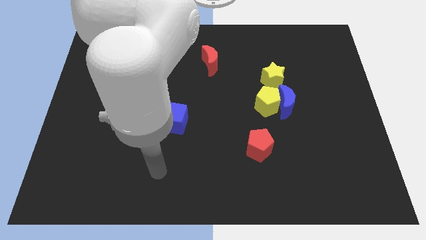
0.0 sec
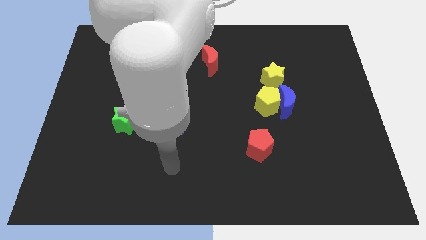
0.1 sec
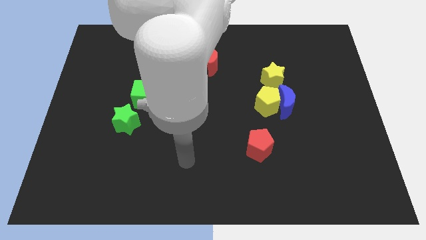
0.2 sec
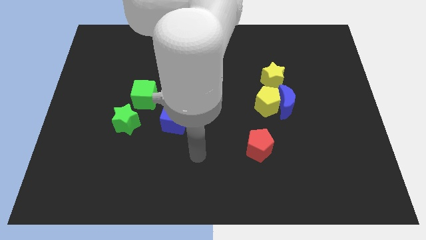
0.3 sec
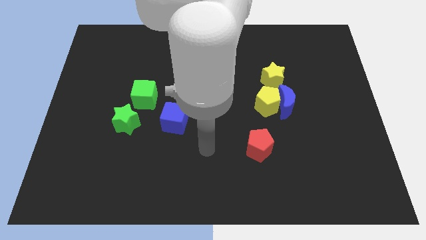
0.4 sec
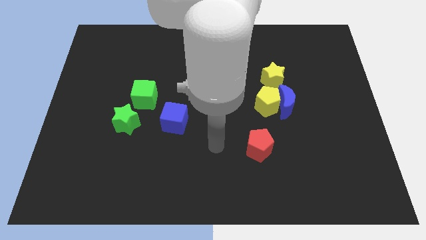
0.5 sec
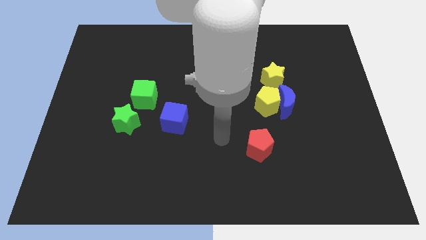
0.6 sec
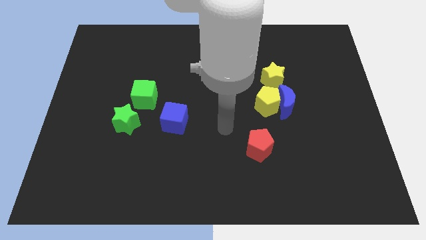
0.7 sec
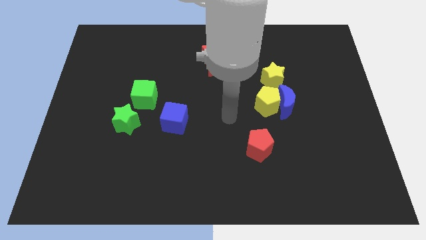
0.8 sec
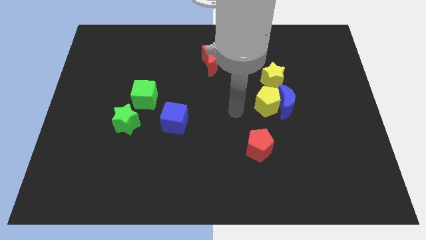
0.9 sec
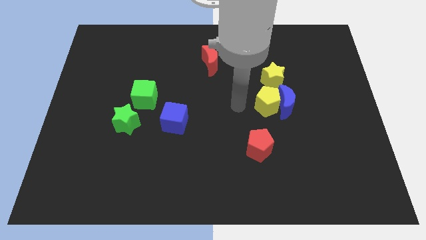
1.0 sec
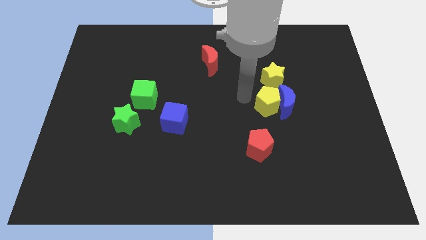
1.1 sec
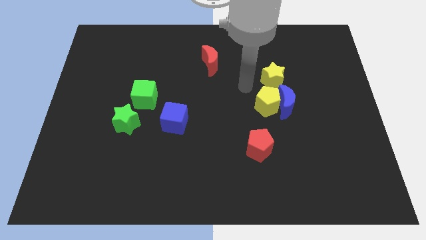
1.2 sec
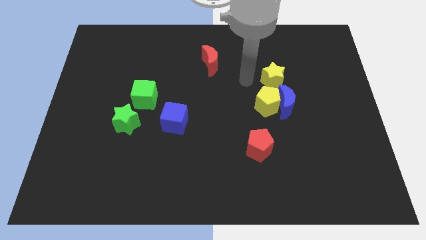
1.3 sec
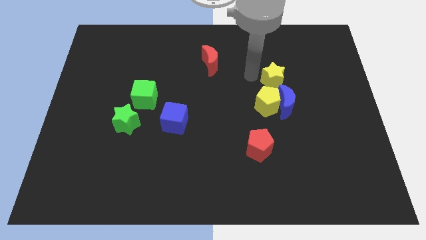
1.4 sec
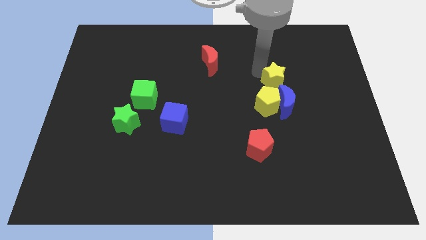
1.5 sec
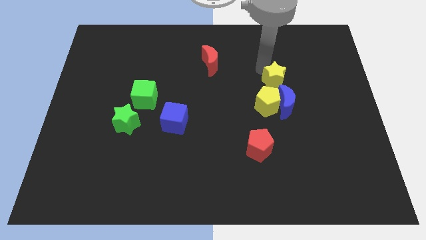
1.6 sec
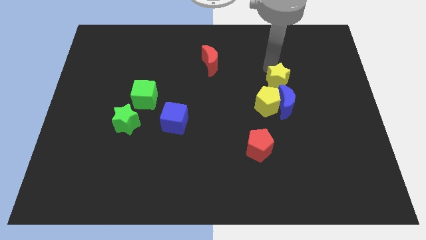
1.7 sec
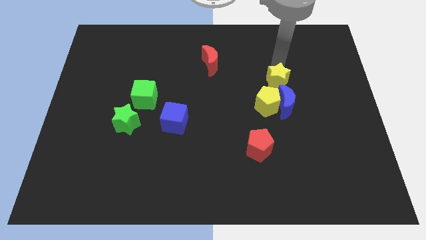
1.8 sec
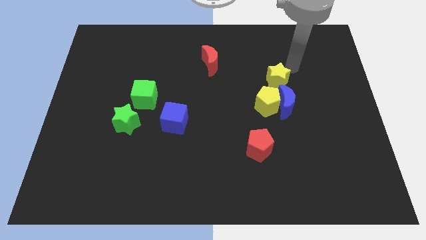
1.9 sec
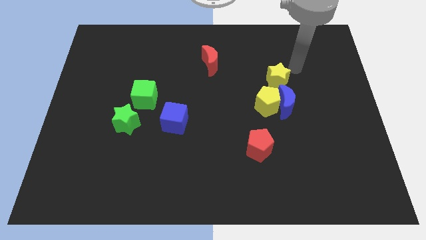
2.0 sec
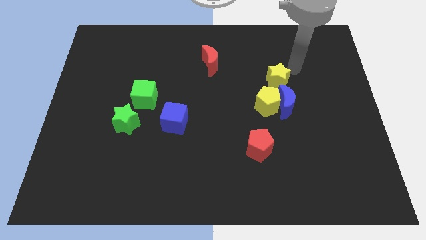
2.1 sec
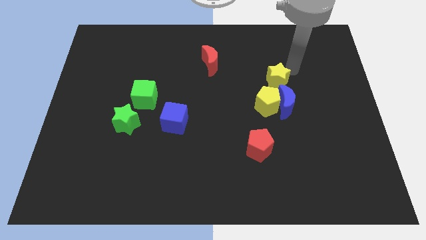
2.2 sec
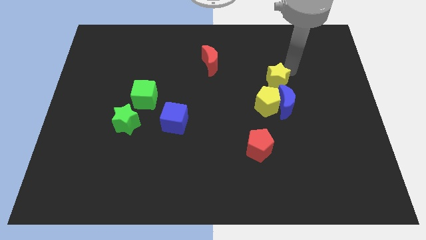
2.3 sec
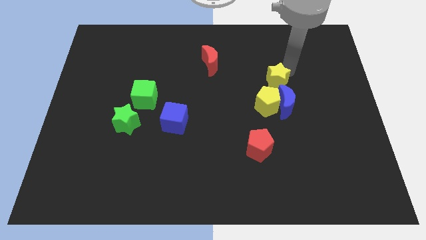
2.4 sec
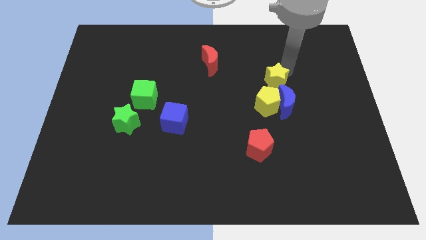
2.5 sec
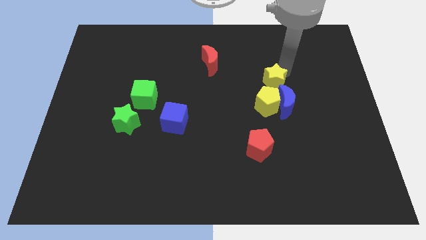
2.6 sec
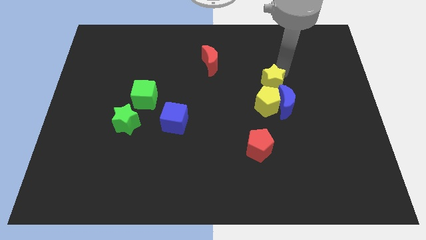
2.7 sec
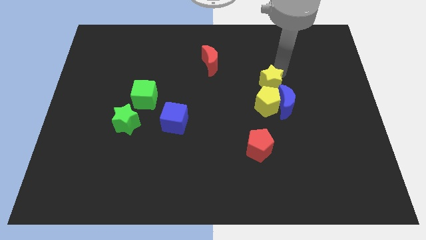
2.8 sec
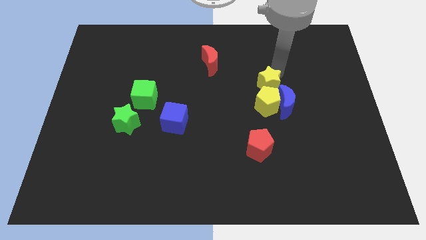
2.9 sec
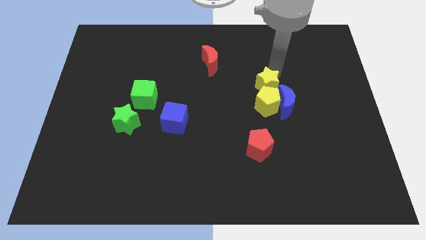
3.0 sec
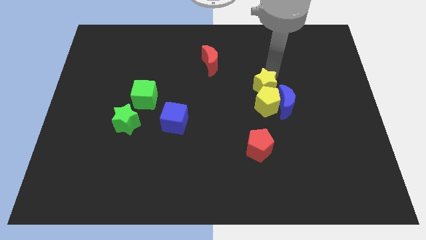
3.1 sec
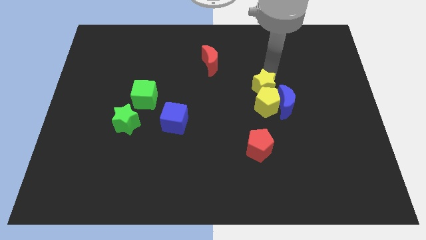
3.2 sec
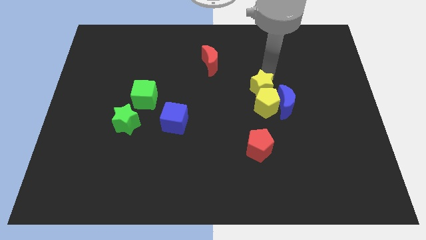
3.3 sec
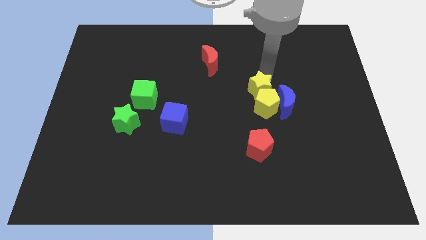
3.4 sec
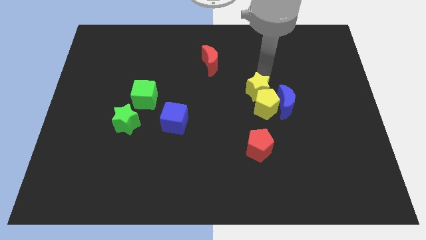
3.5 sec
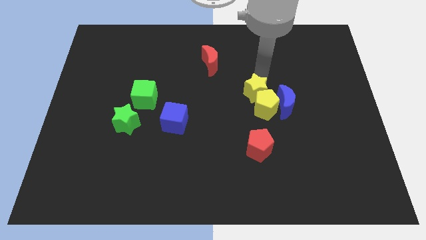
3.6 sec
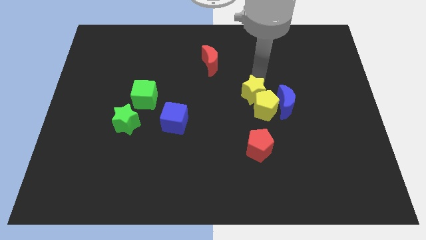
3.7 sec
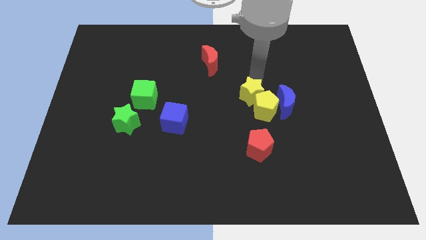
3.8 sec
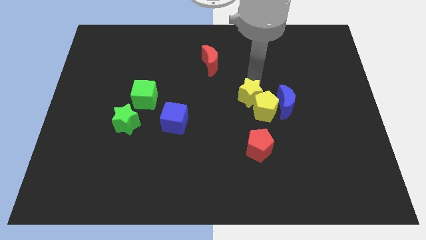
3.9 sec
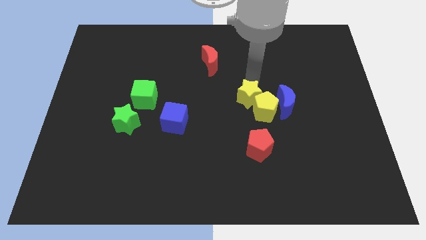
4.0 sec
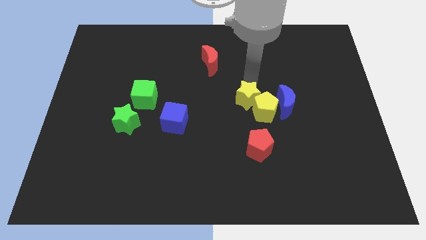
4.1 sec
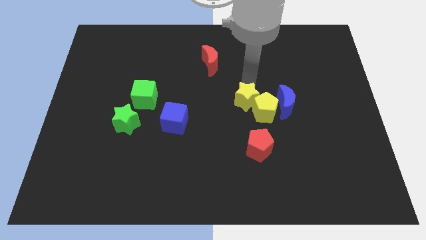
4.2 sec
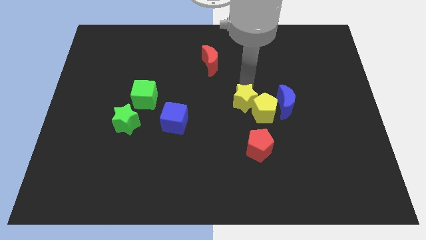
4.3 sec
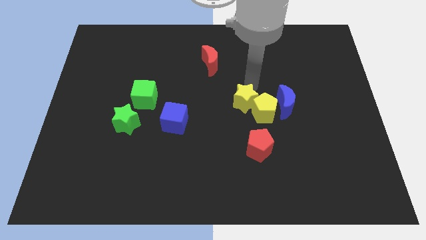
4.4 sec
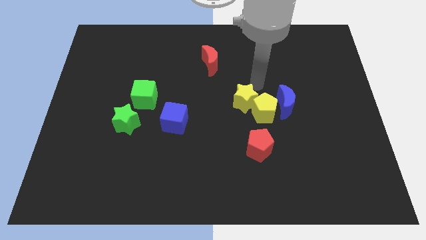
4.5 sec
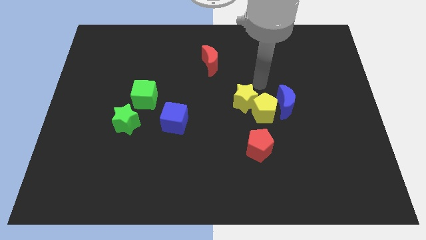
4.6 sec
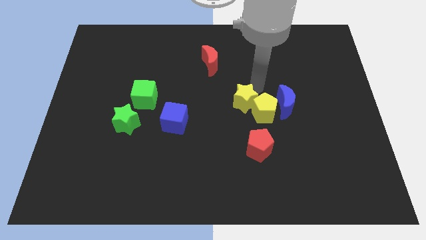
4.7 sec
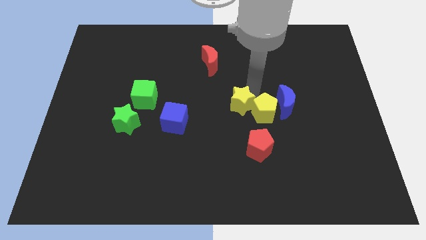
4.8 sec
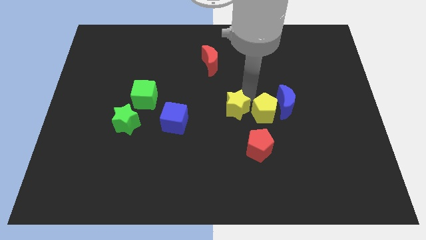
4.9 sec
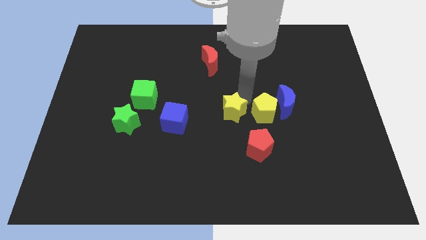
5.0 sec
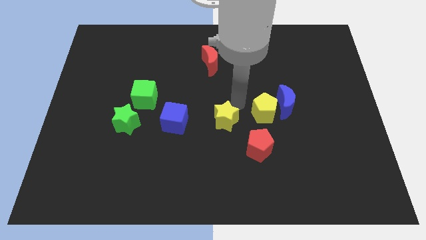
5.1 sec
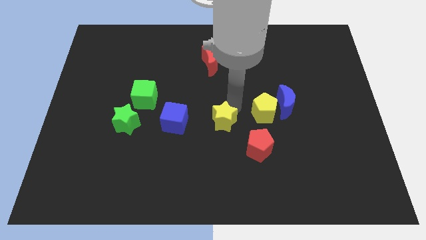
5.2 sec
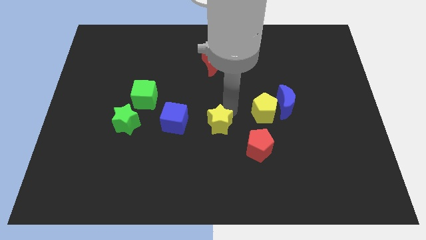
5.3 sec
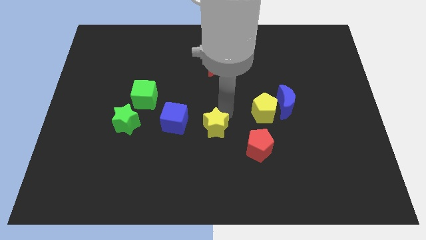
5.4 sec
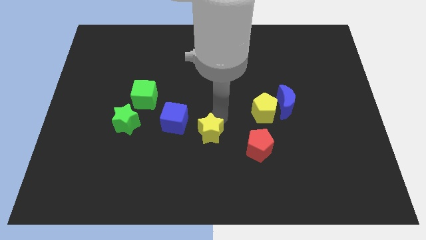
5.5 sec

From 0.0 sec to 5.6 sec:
slide the yellow star left of the red pentagon

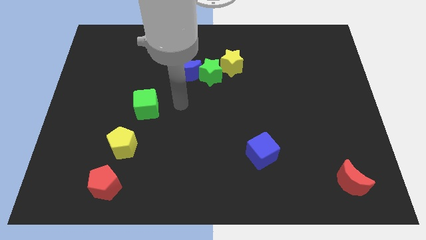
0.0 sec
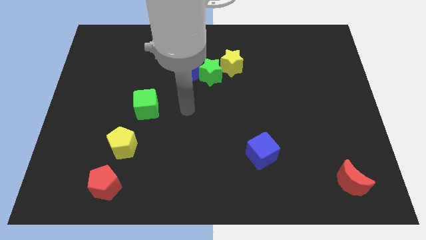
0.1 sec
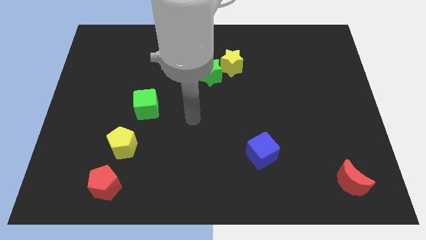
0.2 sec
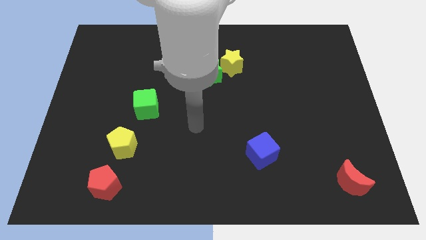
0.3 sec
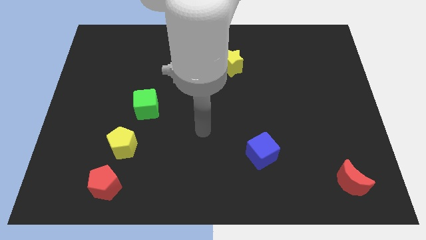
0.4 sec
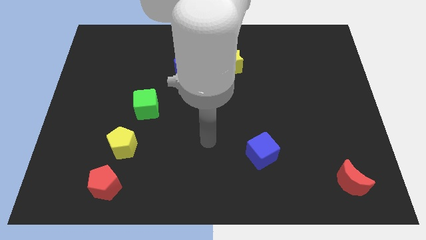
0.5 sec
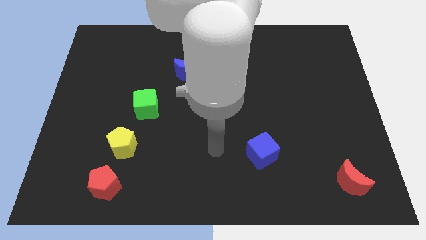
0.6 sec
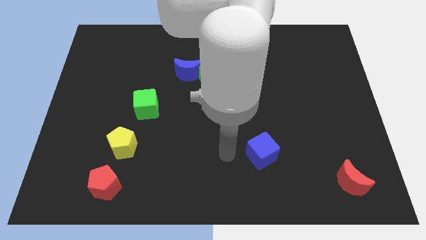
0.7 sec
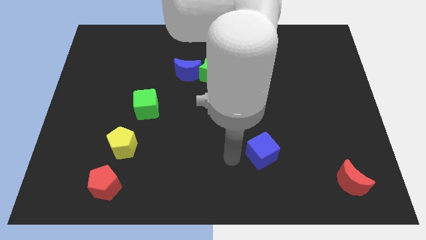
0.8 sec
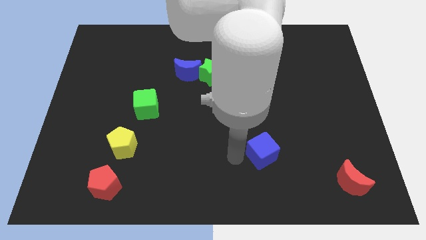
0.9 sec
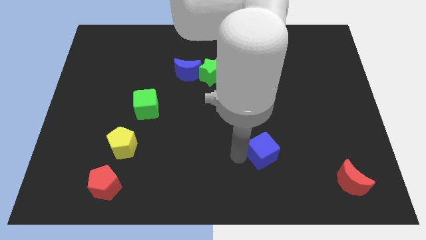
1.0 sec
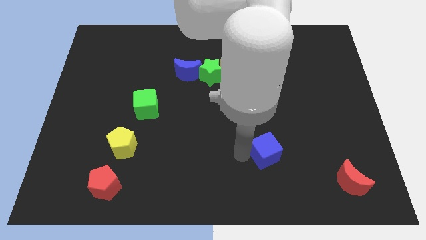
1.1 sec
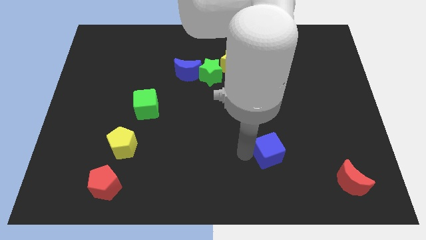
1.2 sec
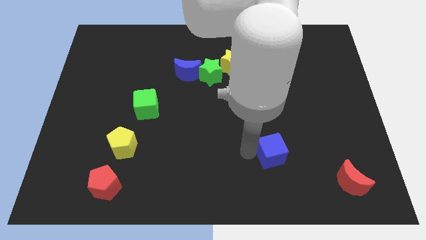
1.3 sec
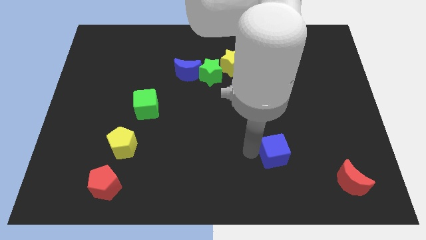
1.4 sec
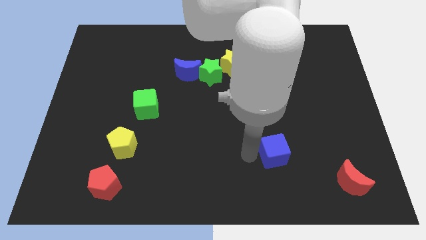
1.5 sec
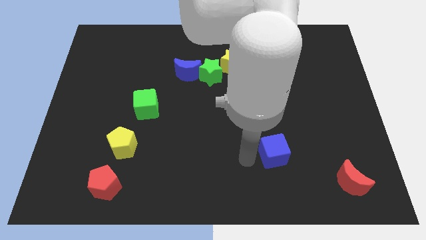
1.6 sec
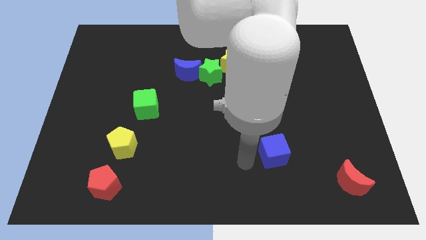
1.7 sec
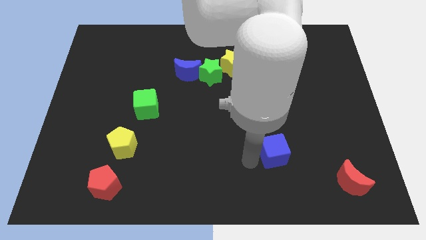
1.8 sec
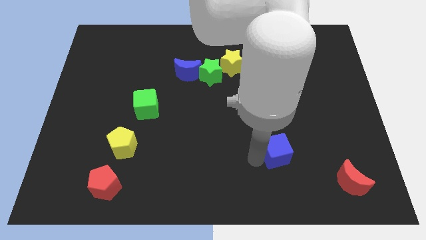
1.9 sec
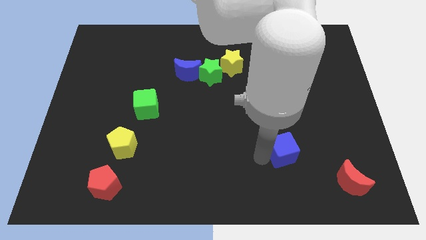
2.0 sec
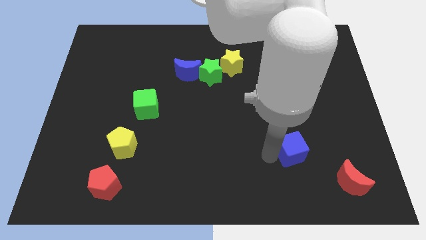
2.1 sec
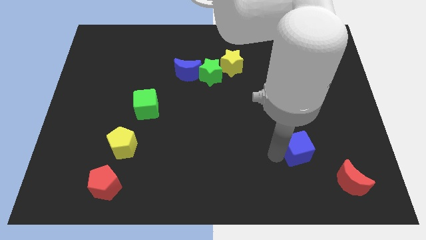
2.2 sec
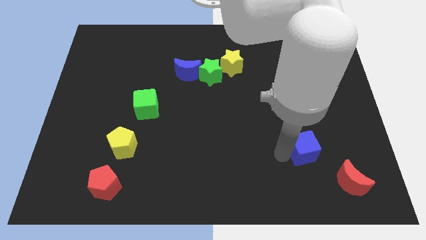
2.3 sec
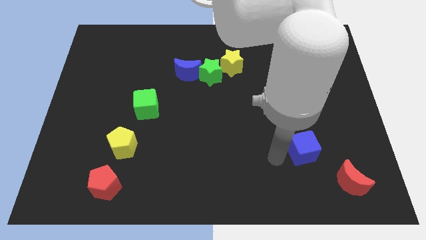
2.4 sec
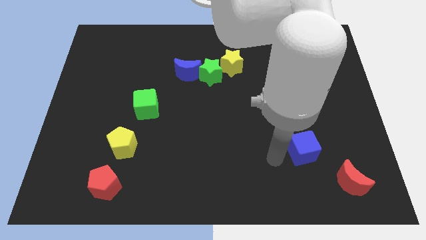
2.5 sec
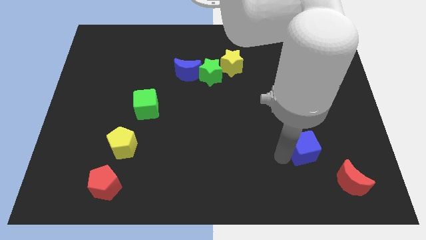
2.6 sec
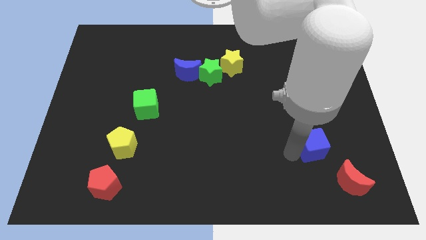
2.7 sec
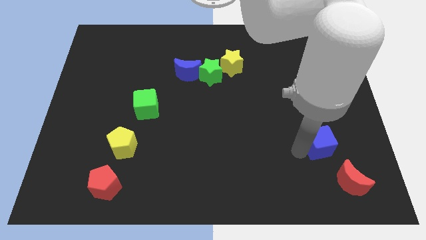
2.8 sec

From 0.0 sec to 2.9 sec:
put the blue cube to the top side of the red moon
